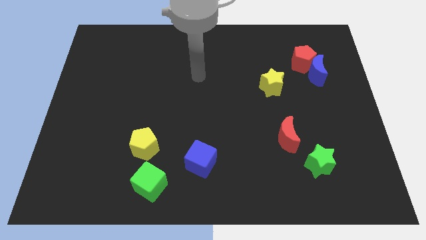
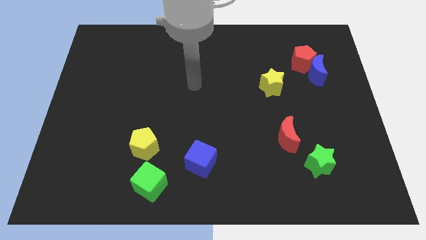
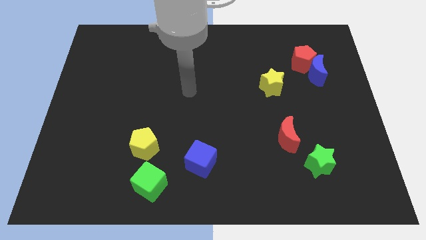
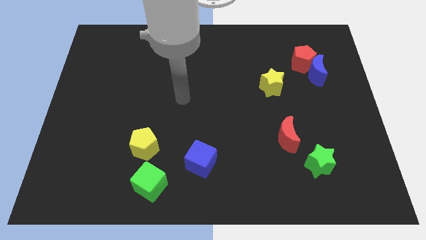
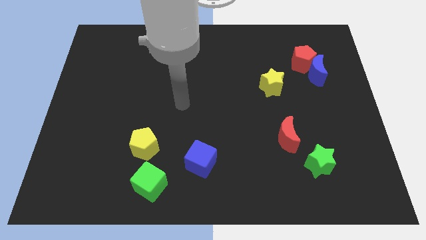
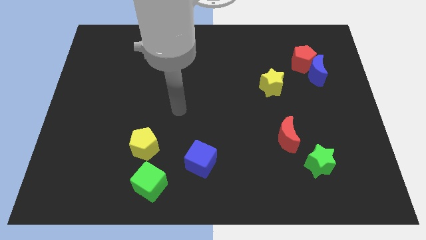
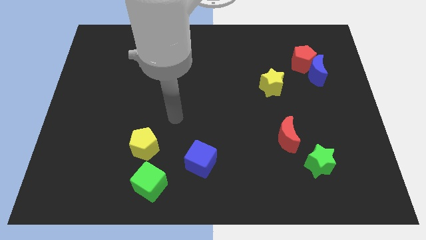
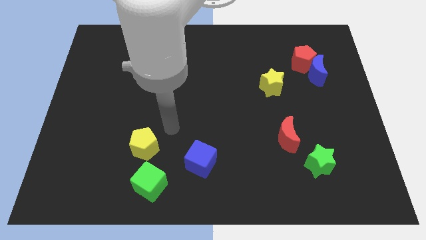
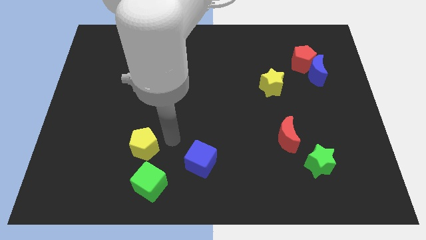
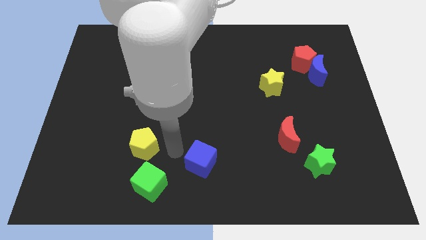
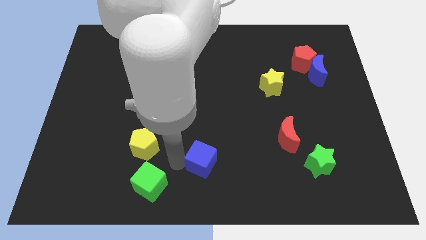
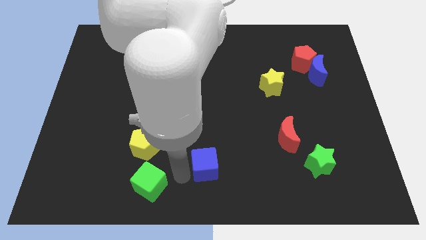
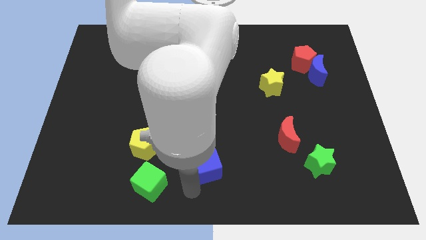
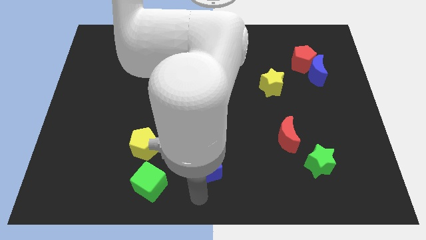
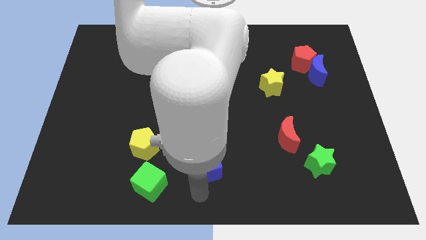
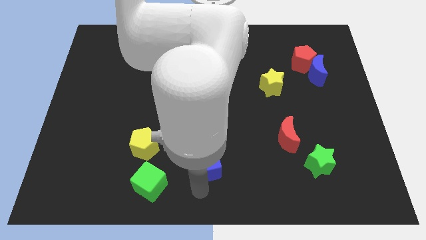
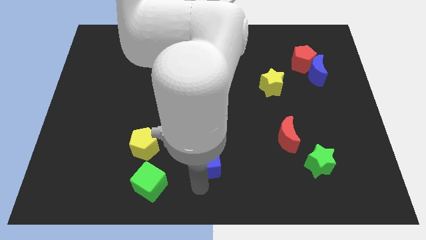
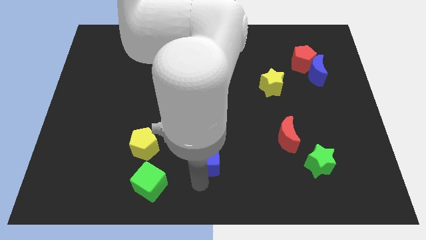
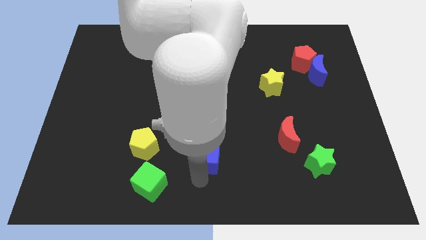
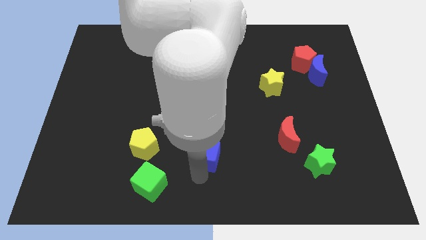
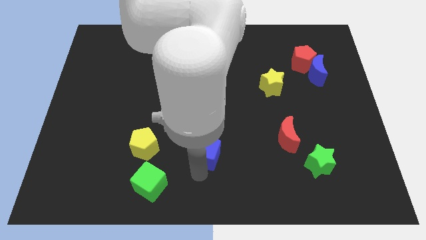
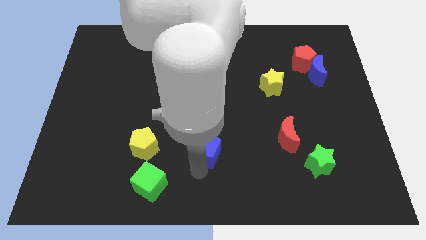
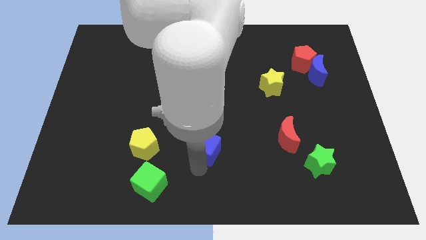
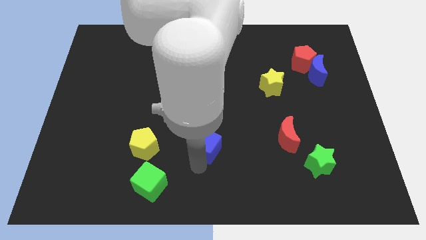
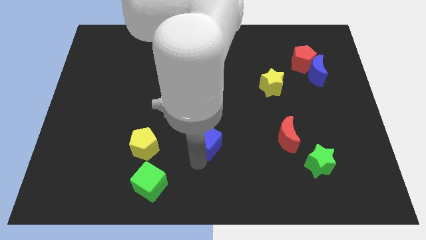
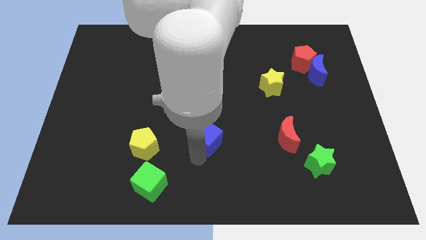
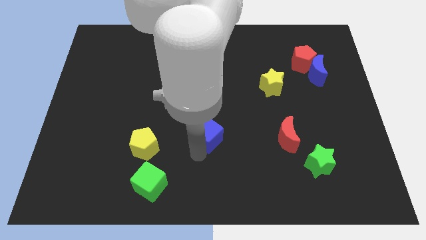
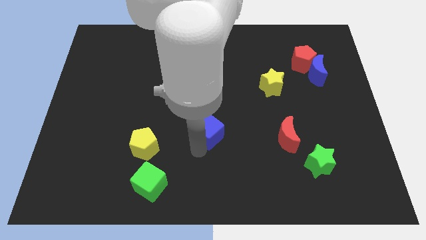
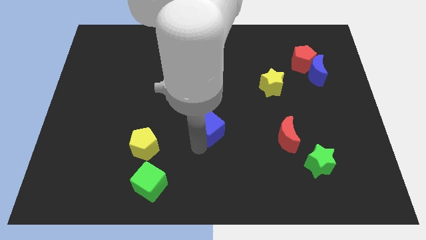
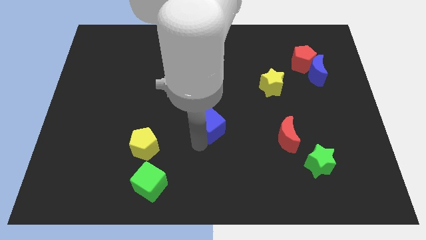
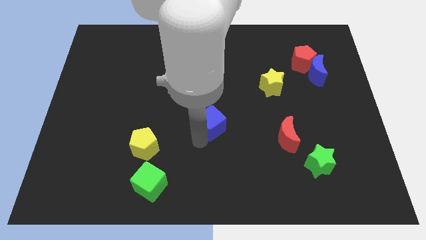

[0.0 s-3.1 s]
slide the blue cube a little upwards and right

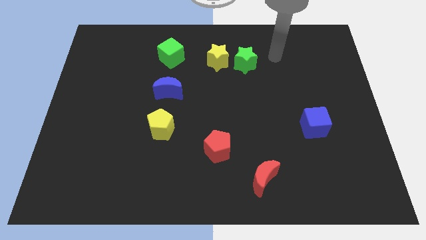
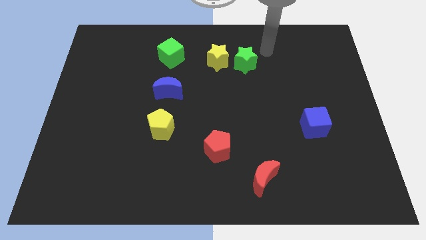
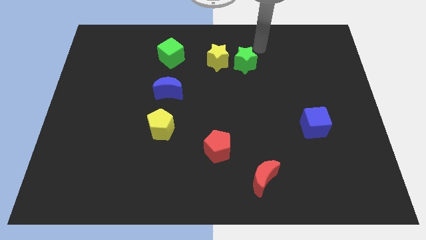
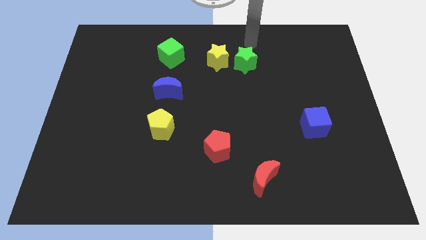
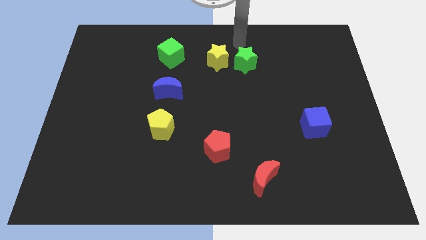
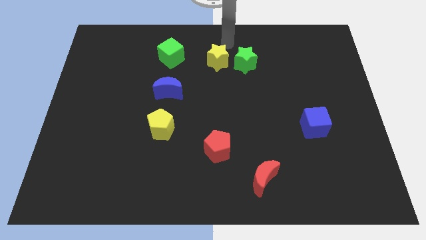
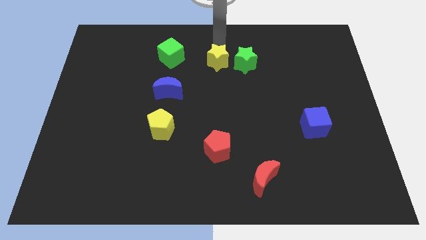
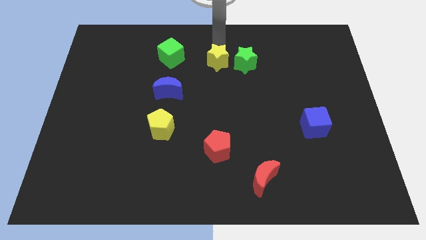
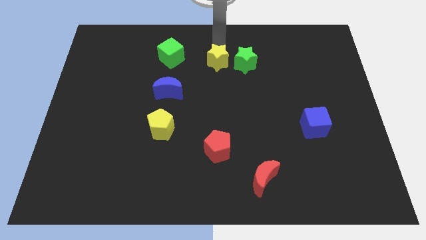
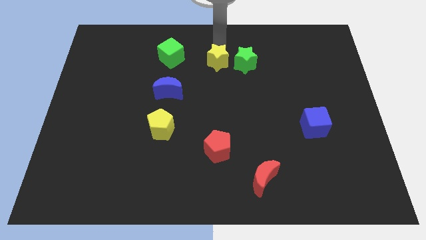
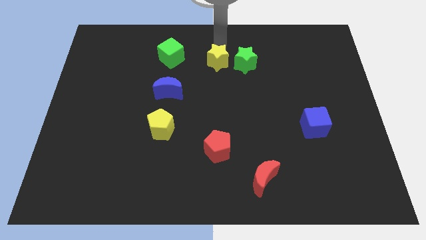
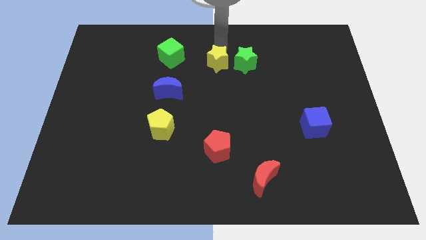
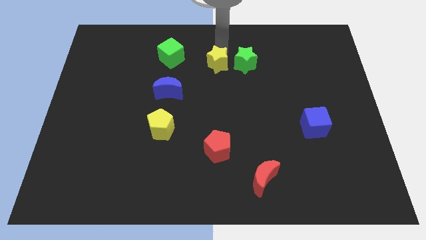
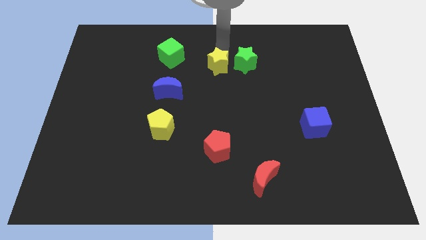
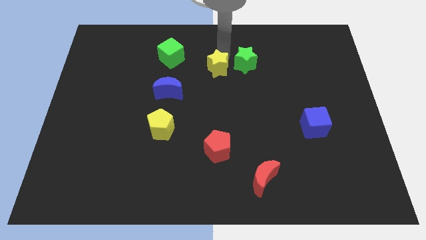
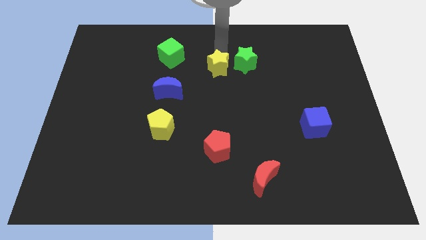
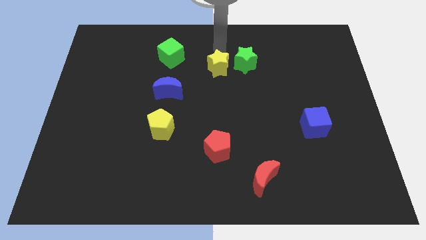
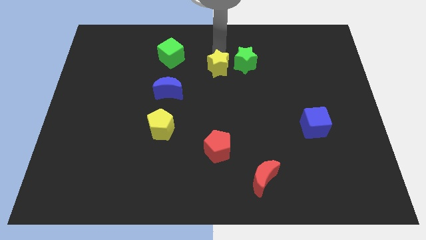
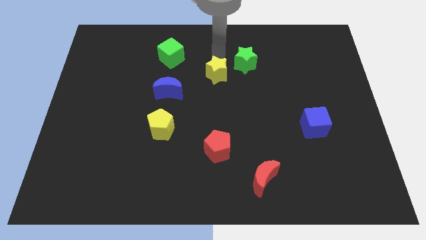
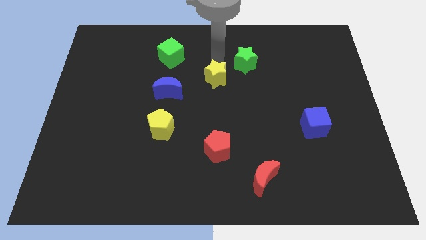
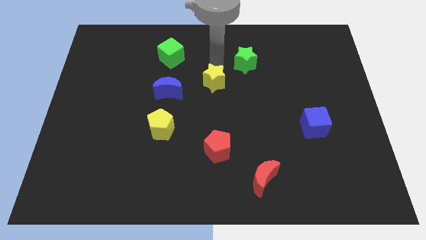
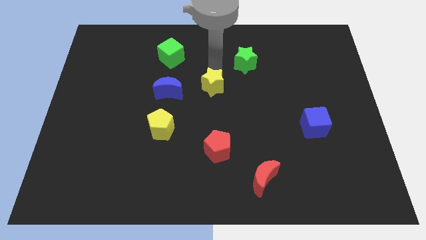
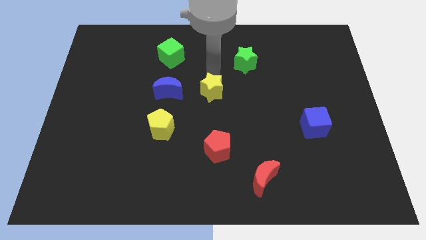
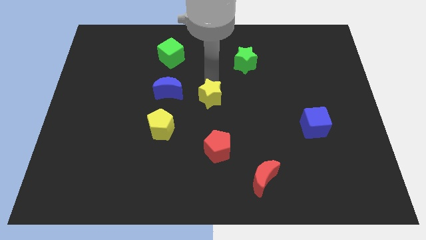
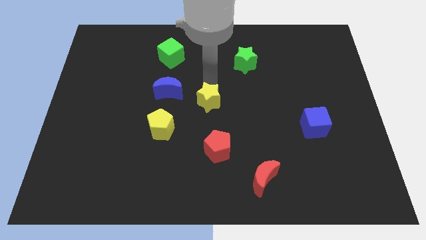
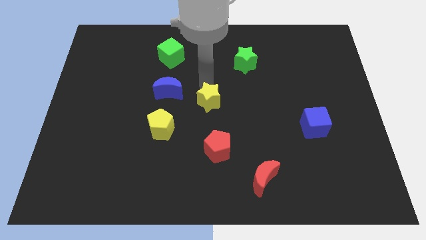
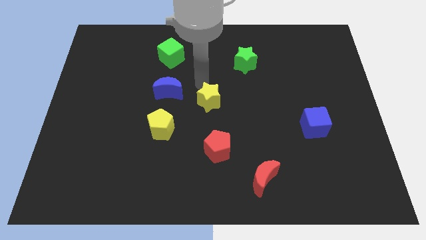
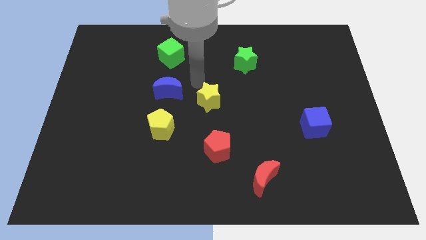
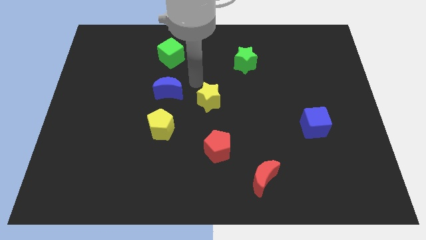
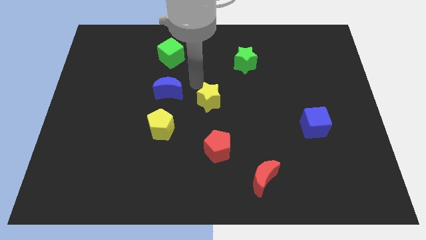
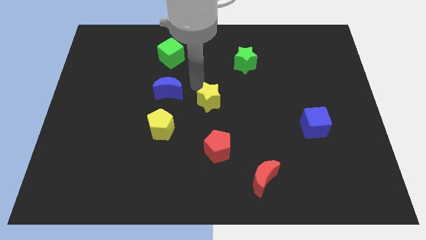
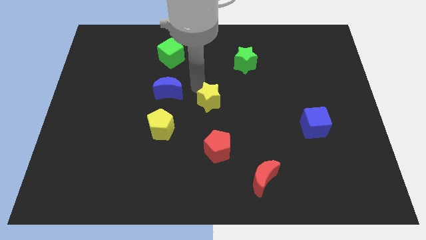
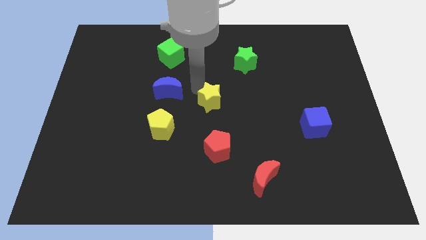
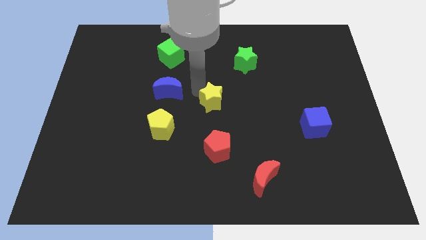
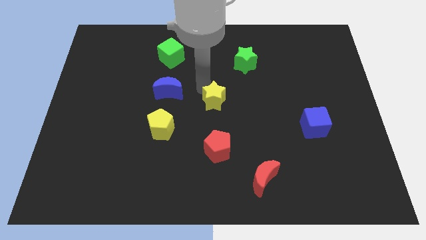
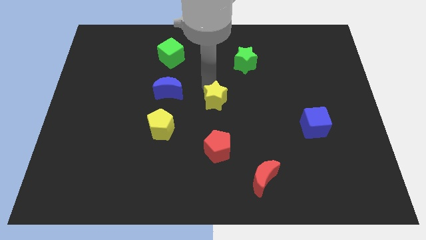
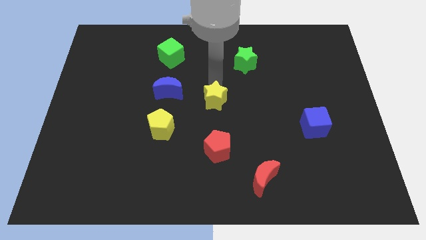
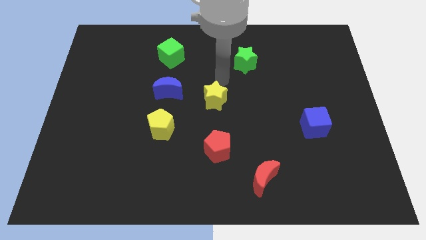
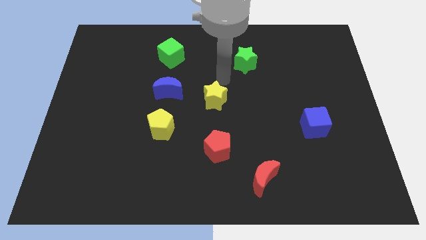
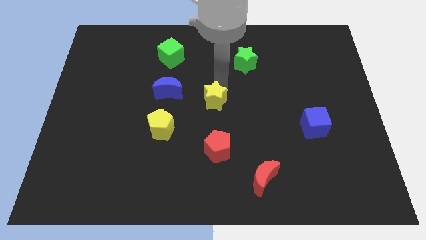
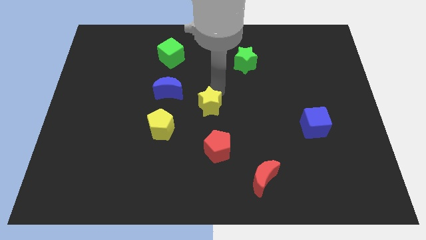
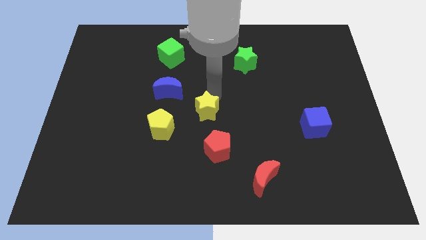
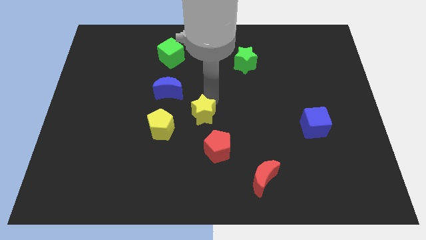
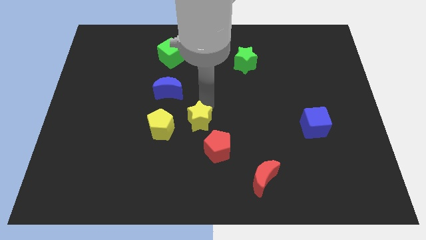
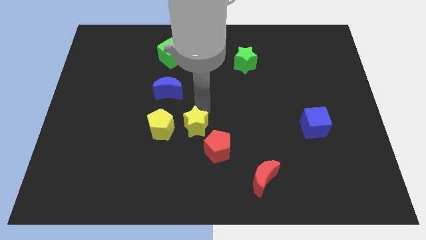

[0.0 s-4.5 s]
slide the yellow star downwards

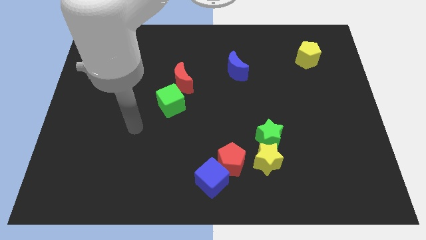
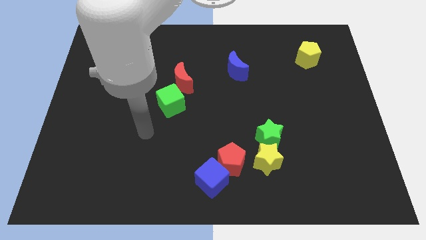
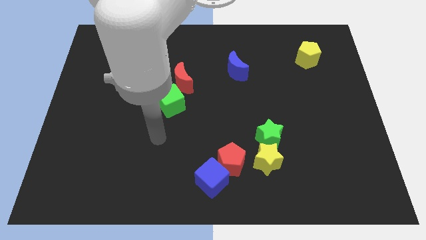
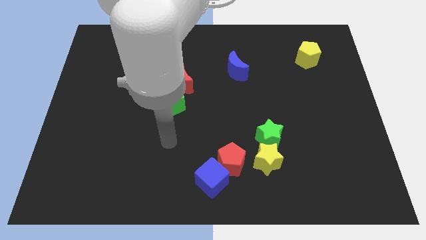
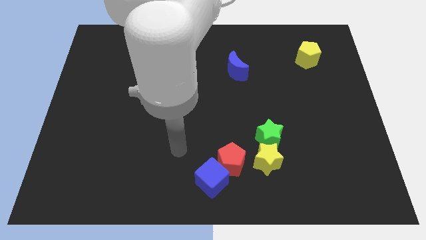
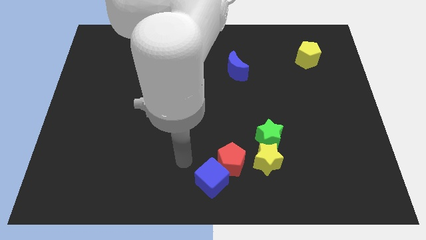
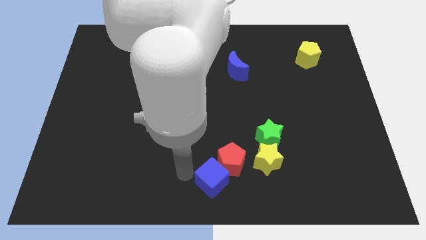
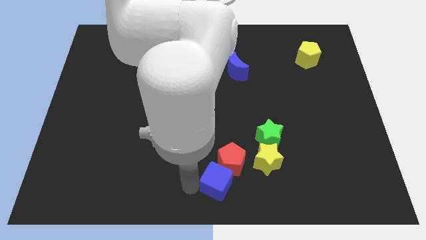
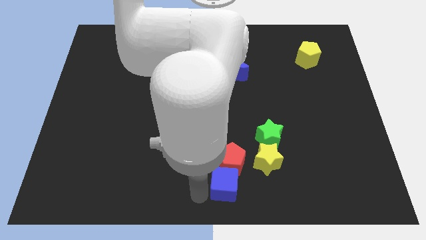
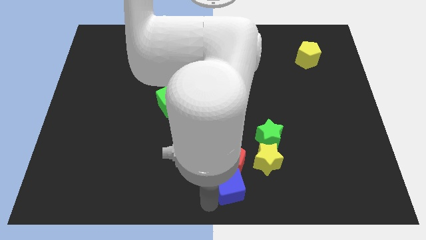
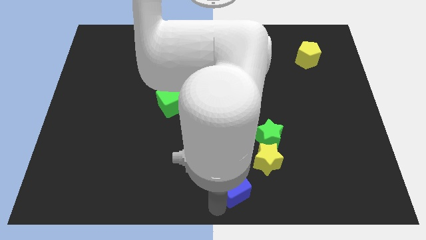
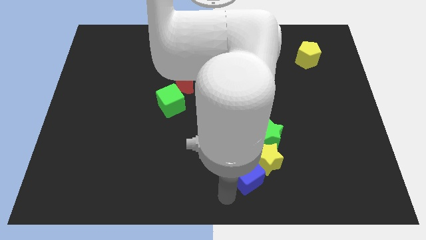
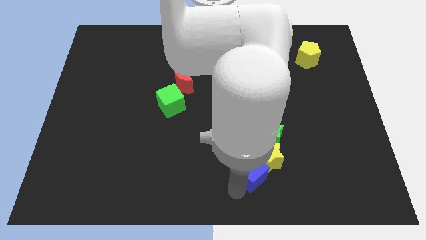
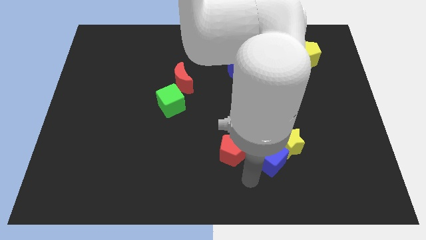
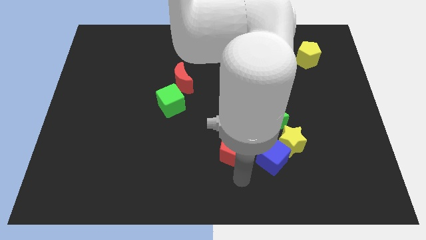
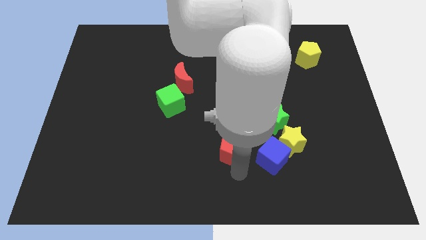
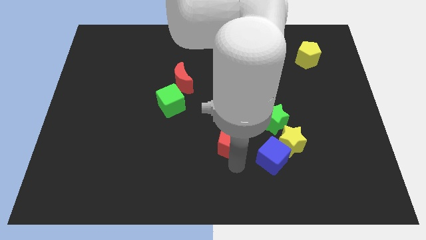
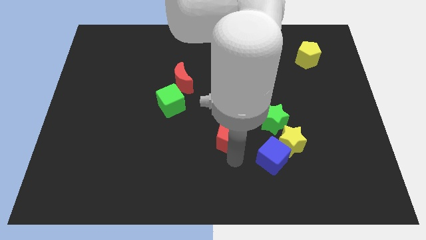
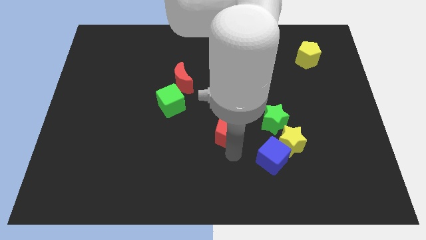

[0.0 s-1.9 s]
slightly move the red pentagon up
